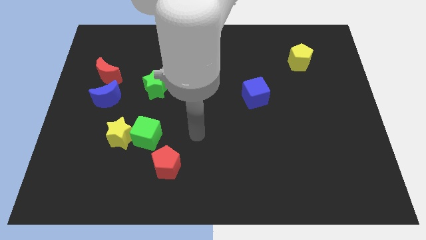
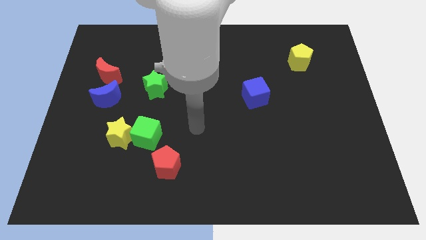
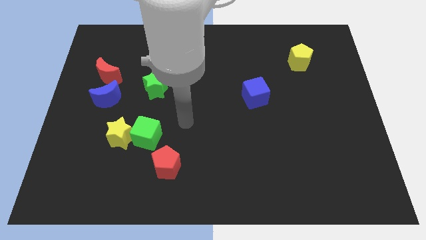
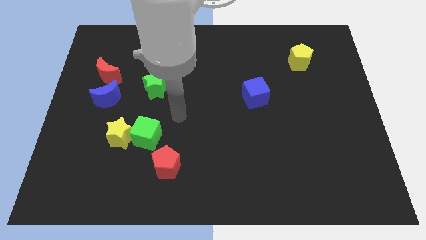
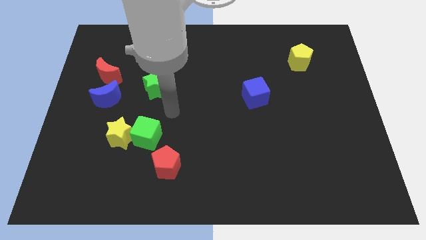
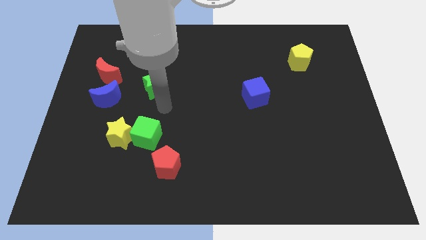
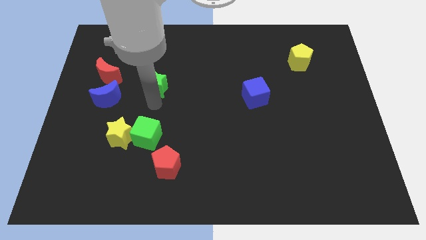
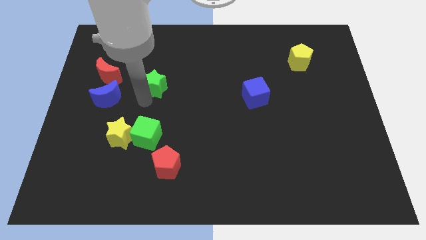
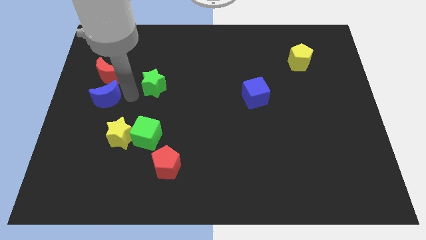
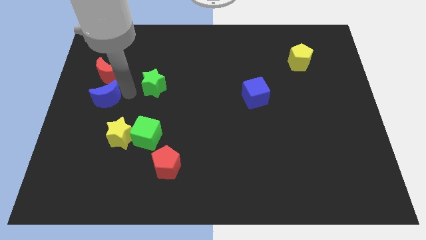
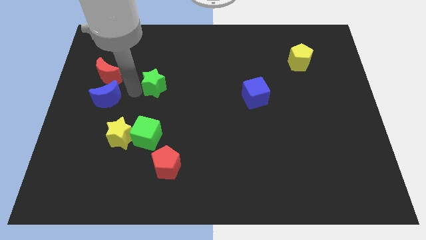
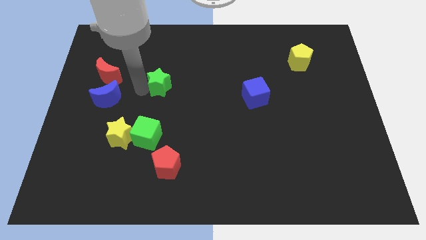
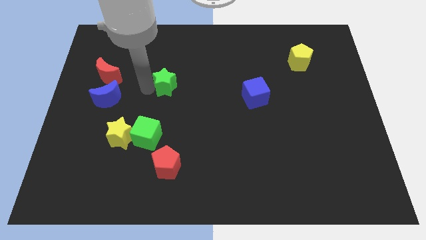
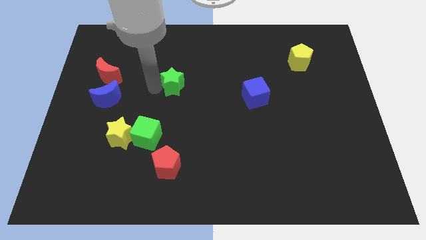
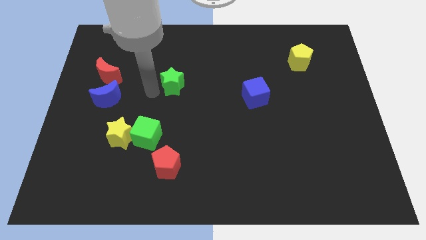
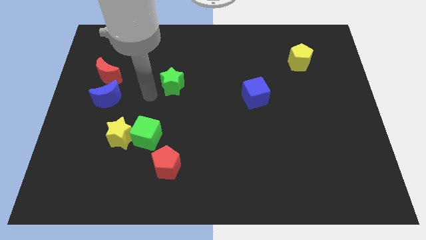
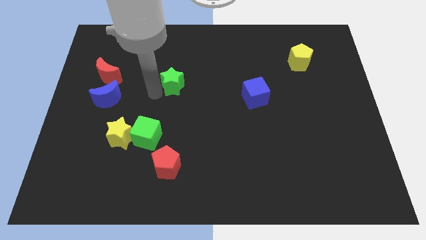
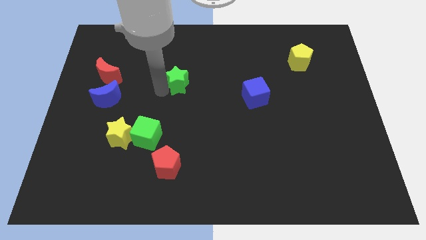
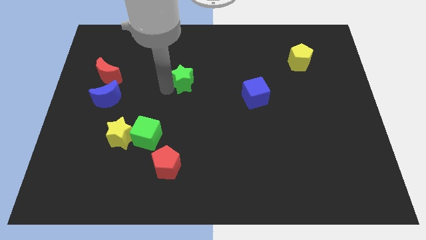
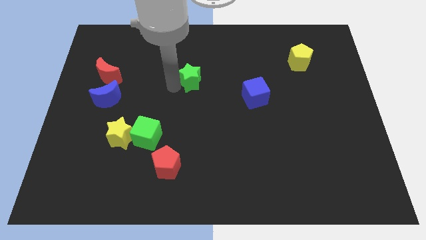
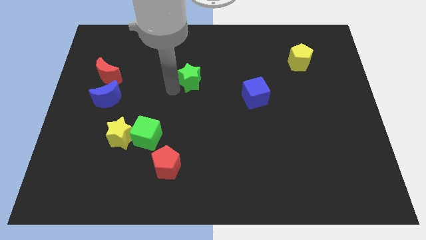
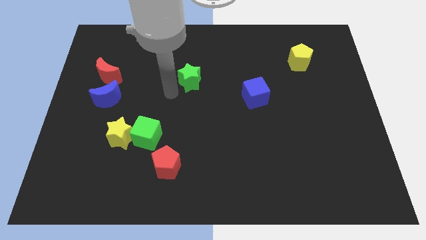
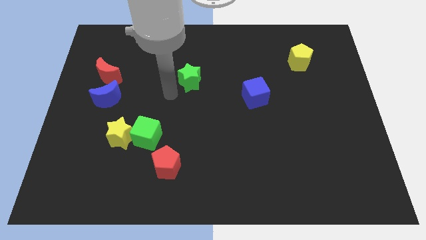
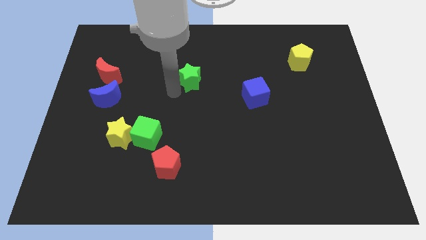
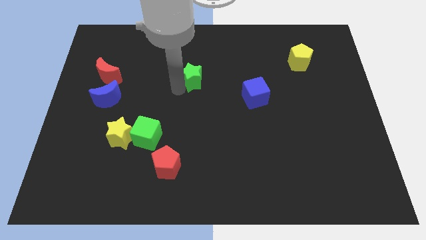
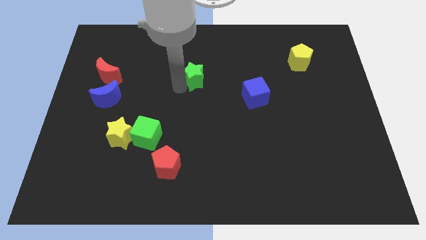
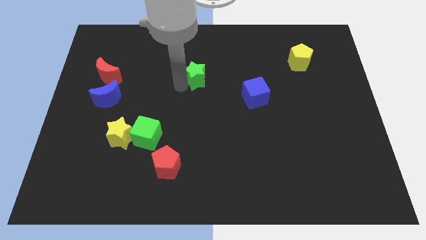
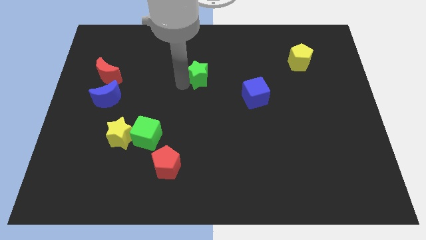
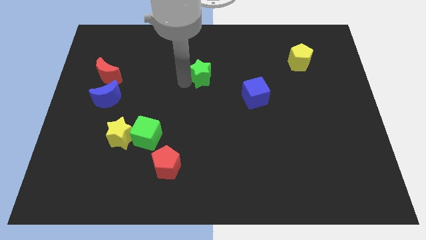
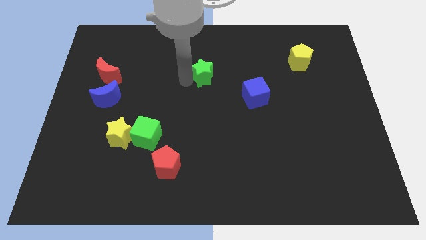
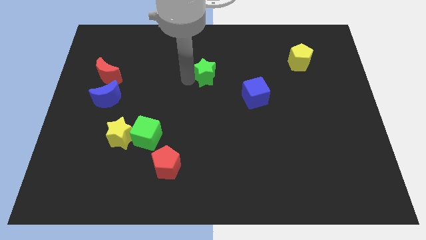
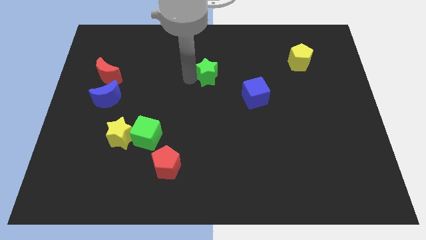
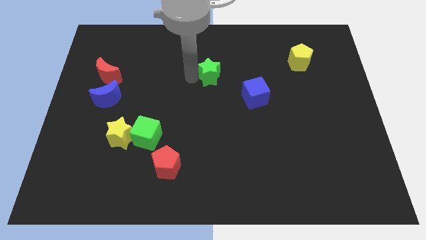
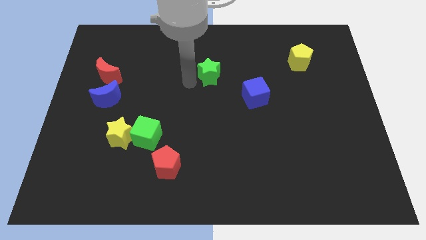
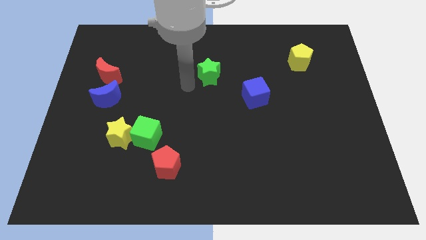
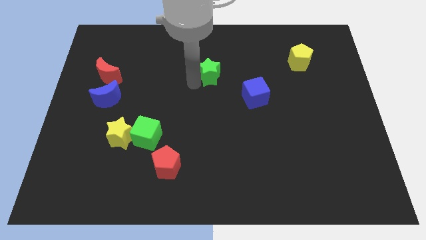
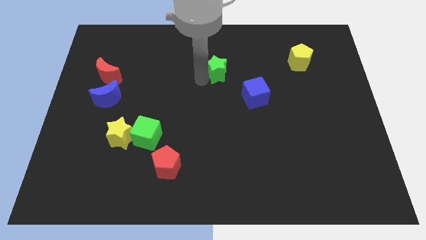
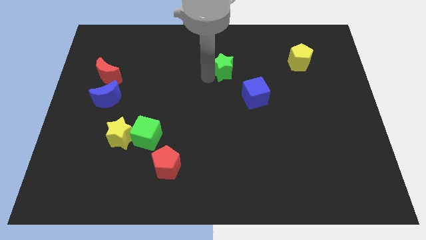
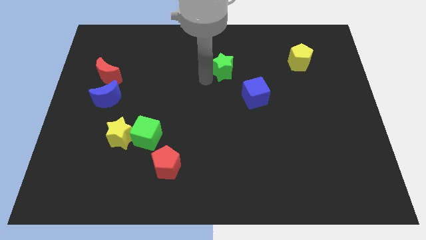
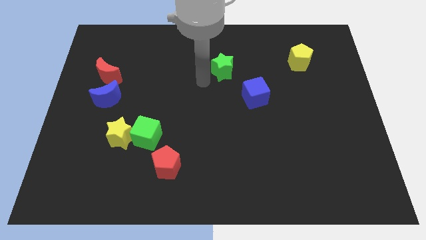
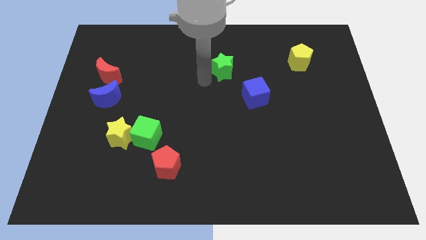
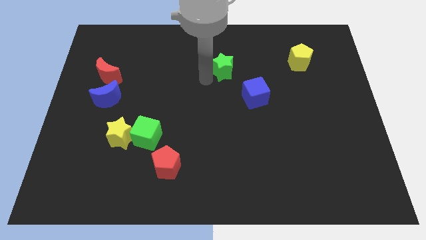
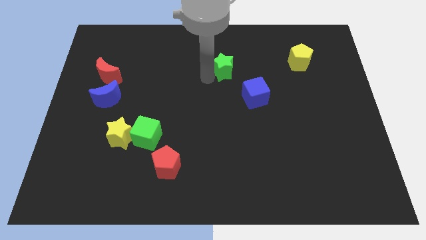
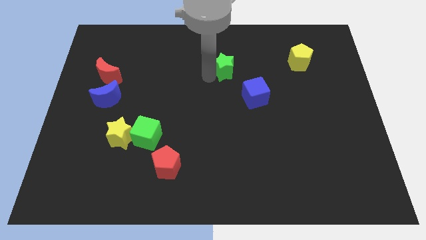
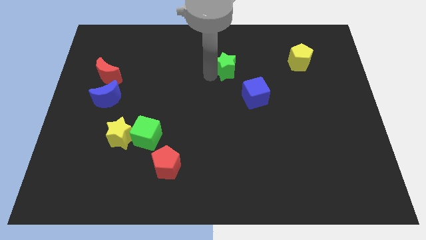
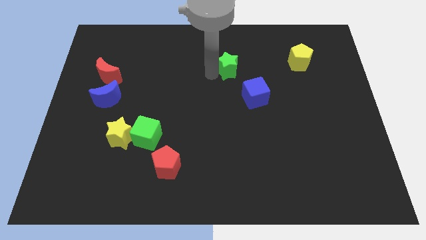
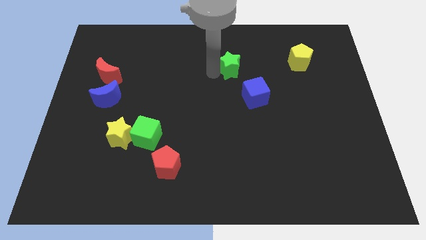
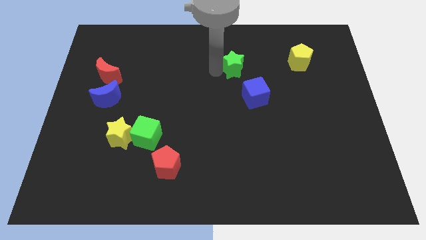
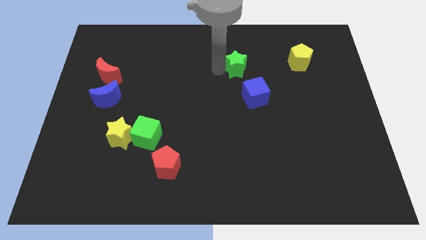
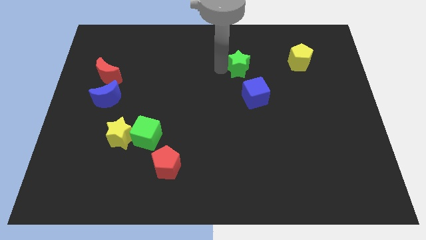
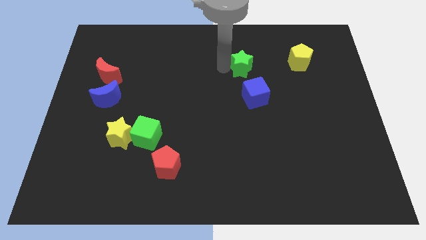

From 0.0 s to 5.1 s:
push the green star just left of the yellow pentagon

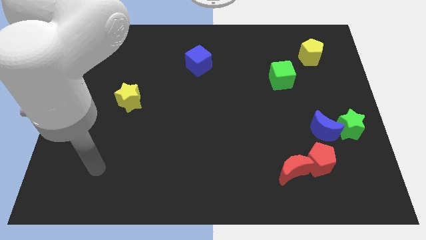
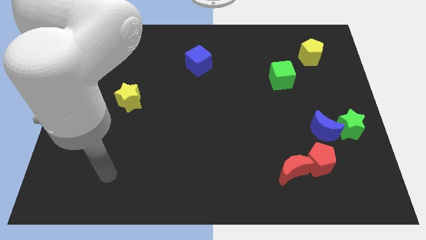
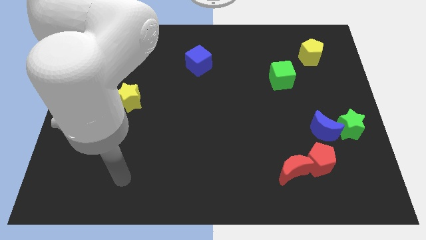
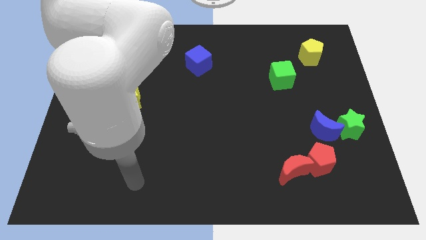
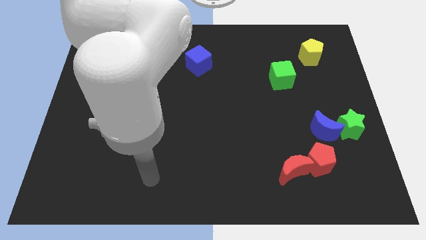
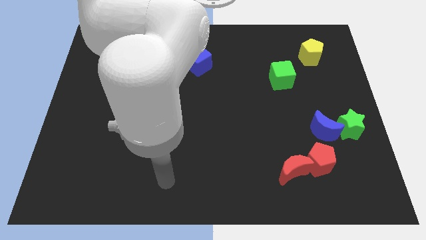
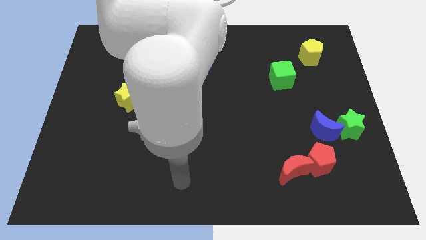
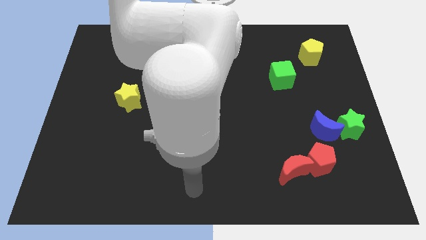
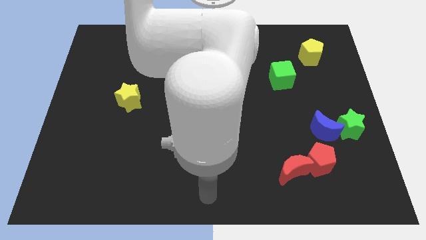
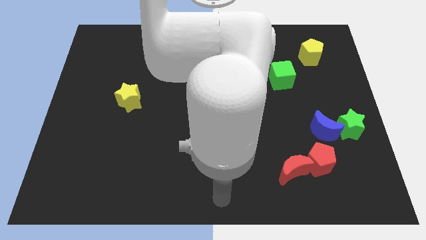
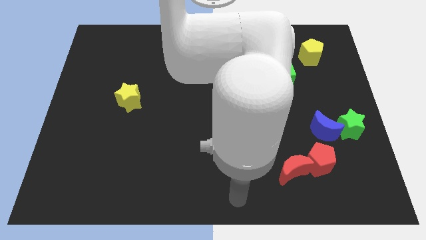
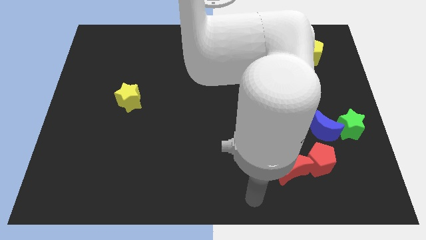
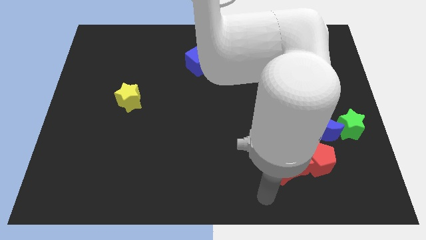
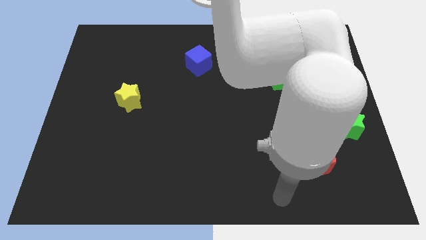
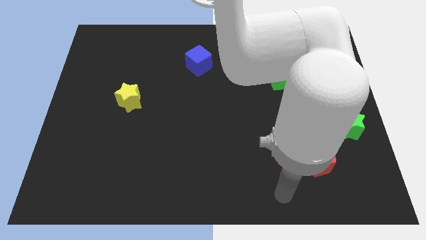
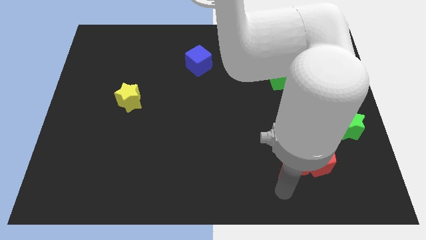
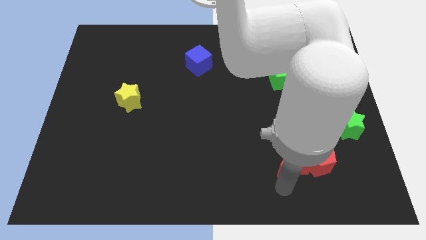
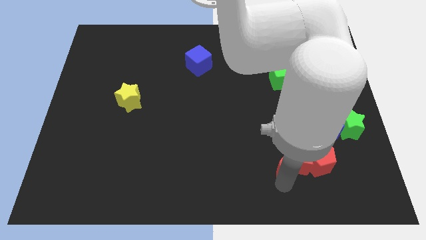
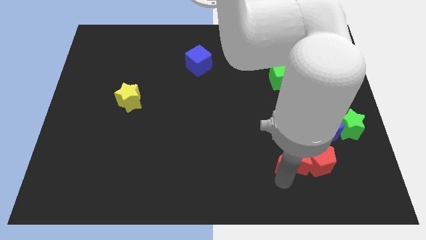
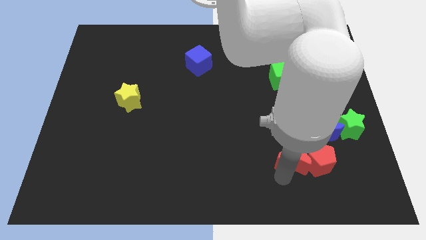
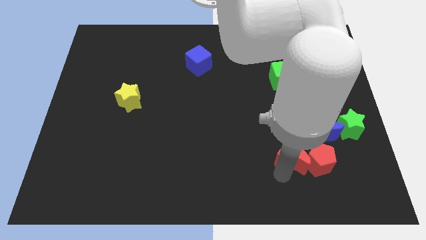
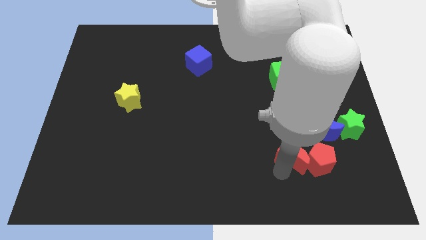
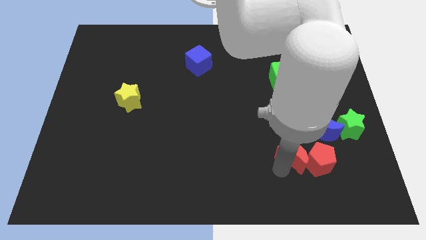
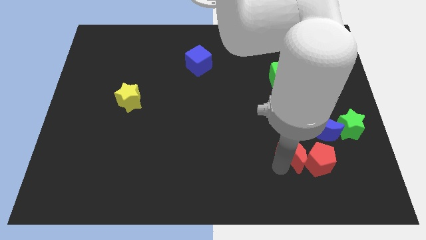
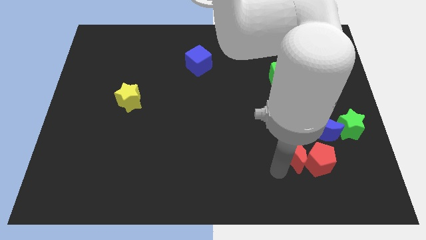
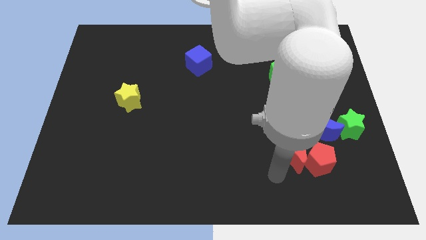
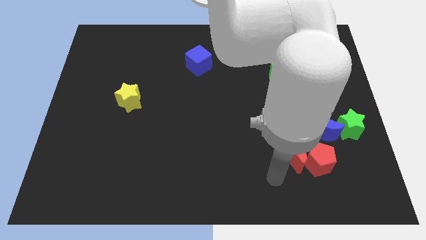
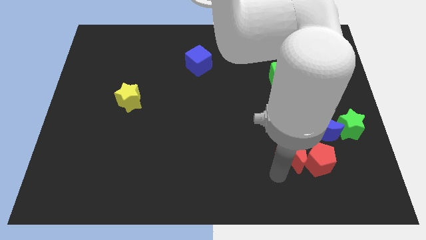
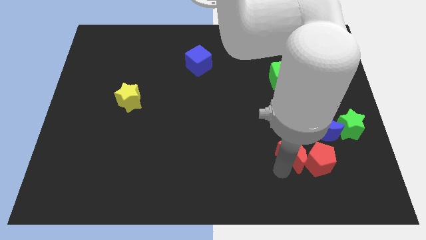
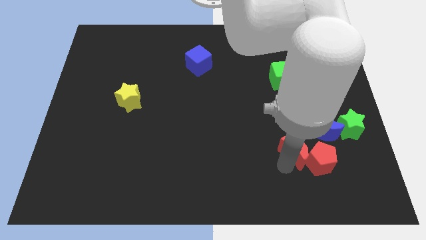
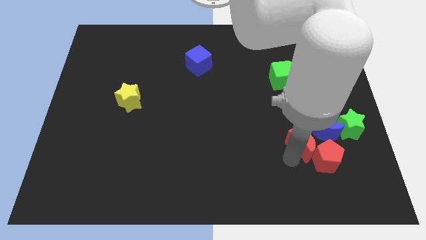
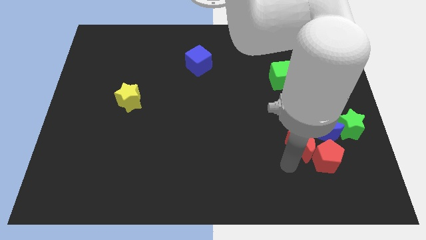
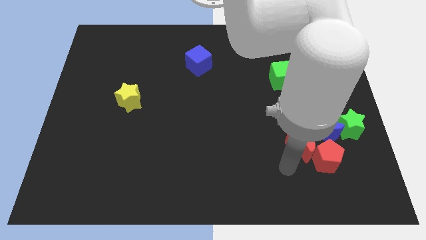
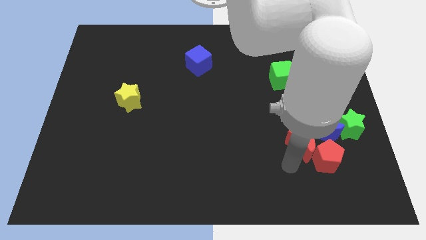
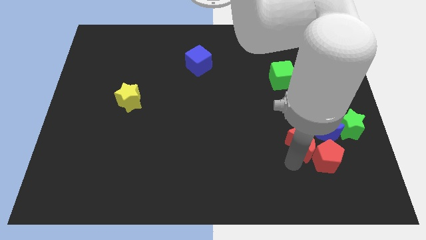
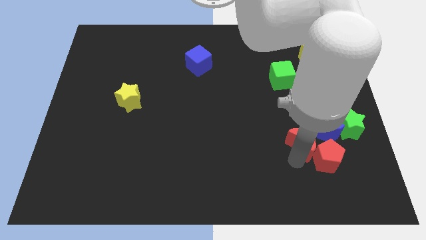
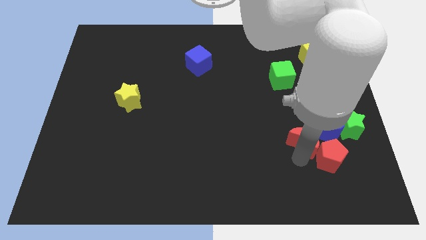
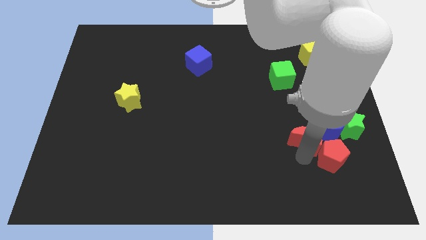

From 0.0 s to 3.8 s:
put the red moon to the top of the red pentagon
